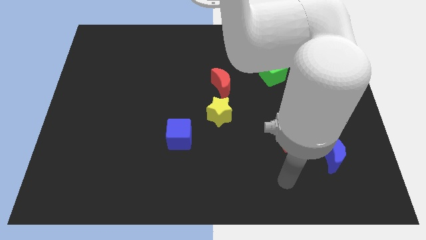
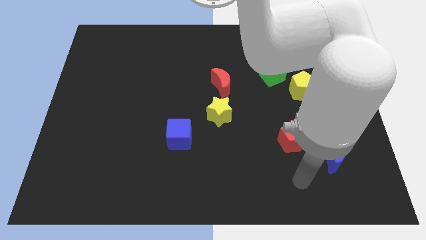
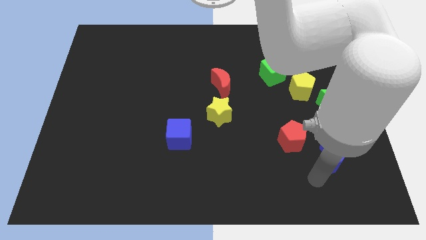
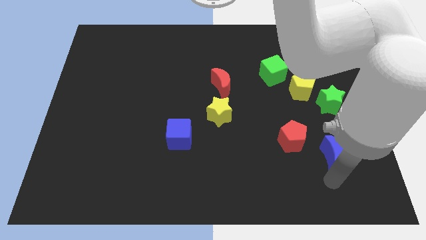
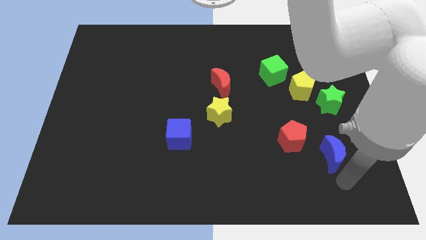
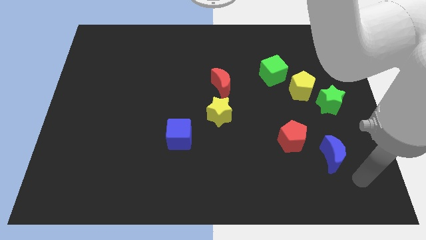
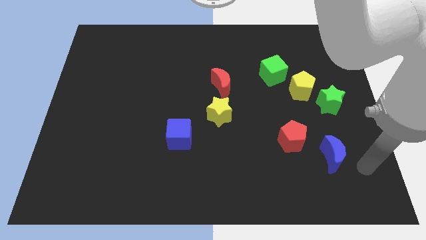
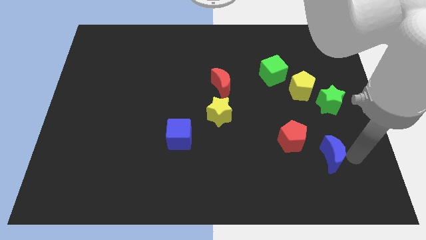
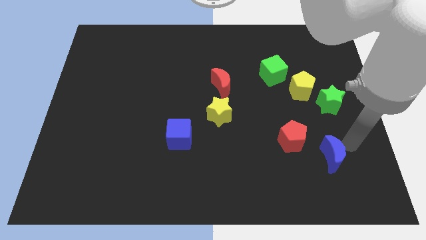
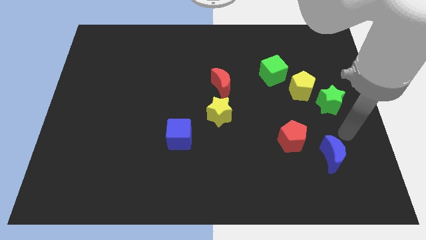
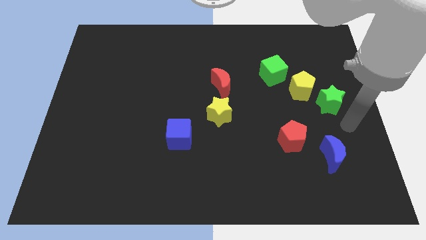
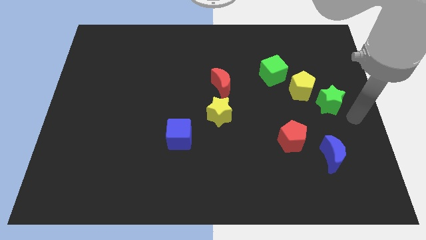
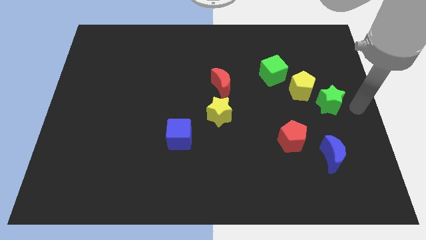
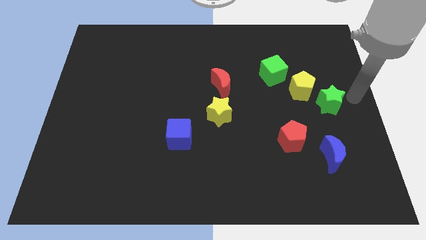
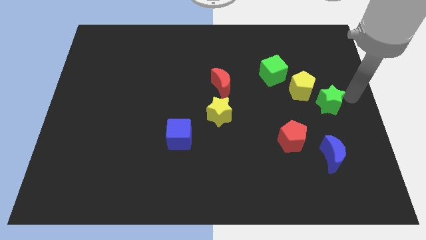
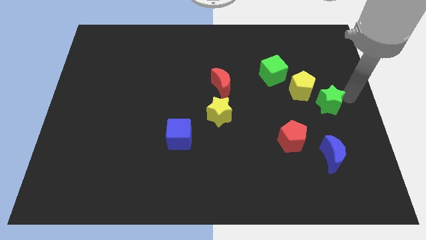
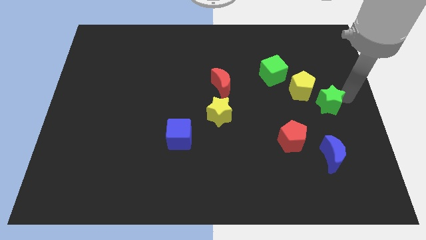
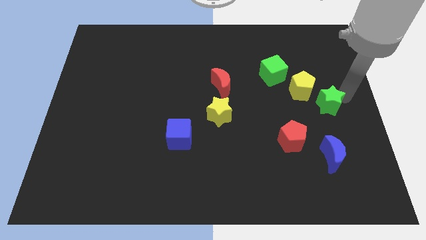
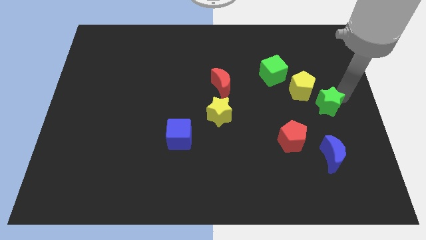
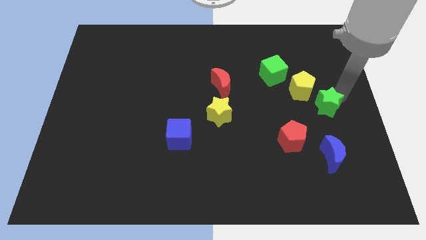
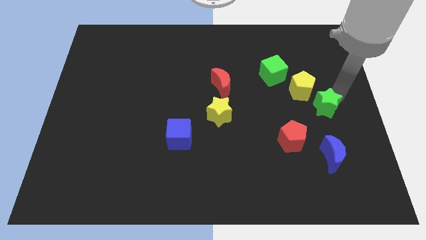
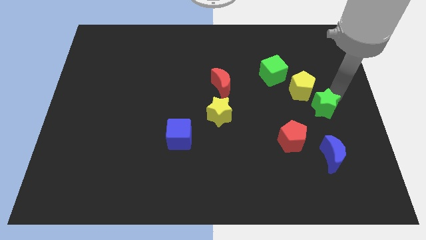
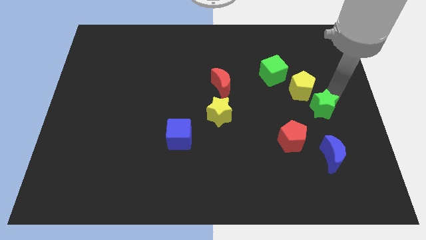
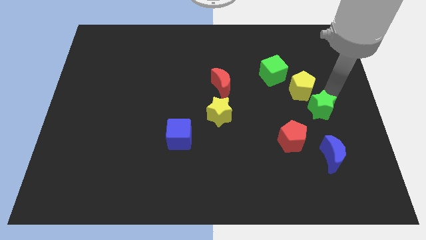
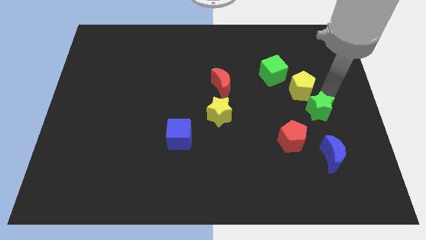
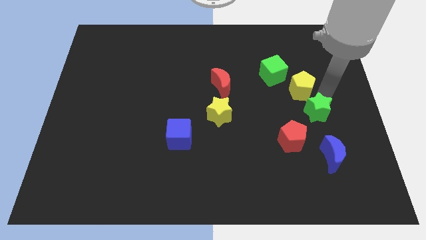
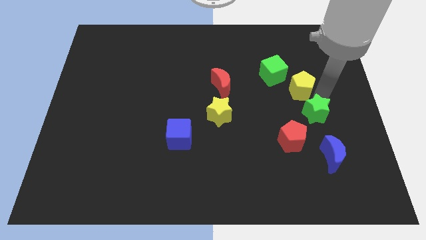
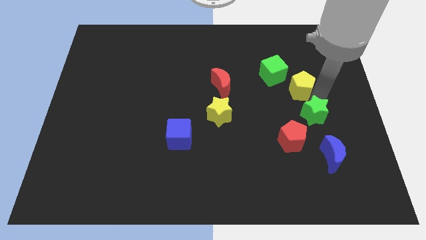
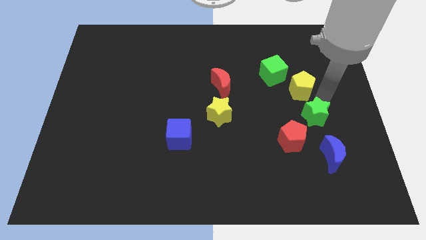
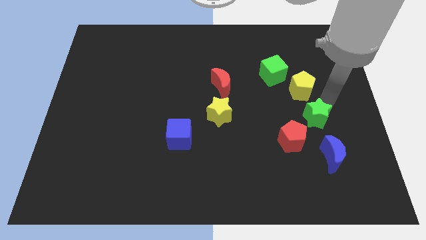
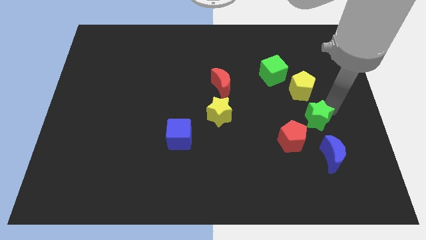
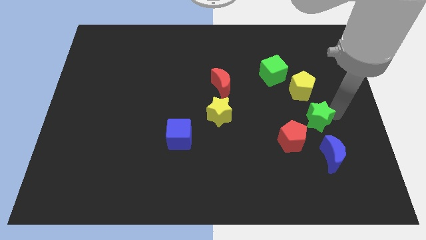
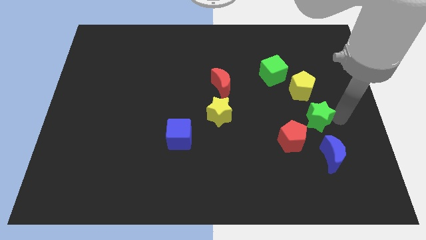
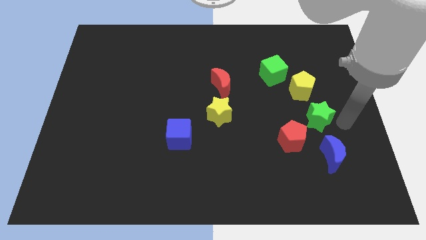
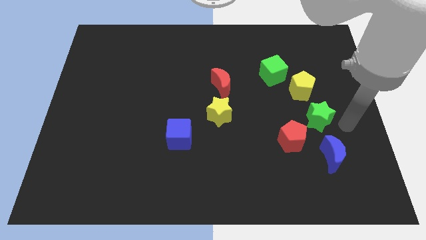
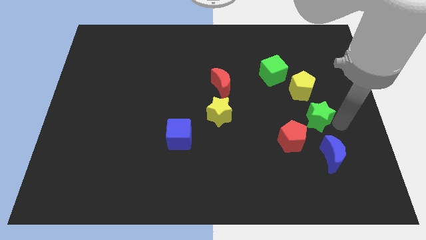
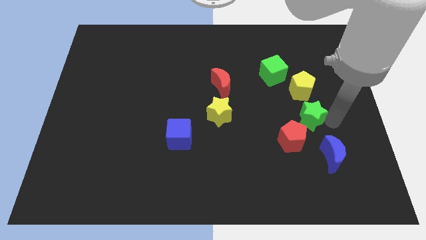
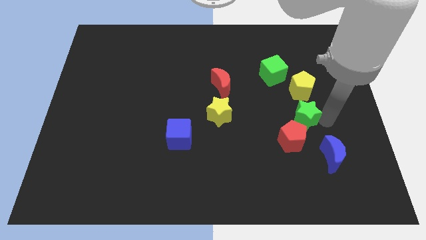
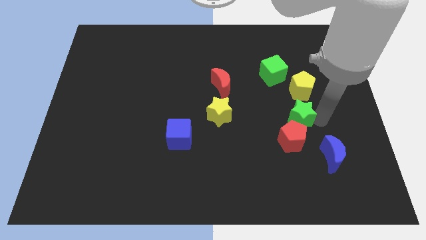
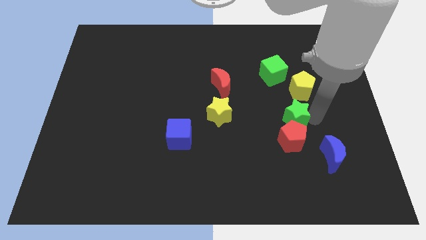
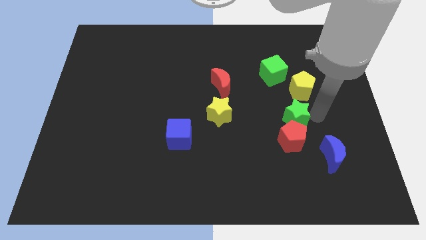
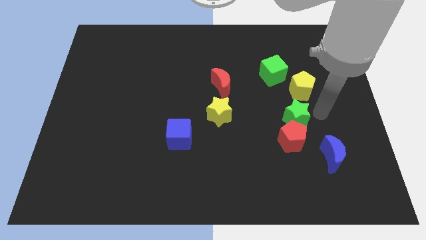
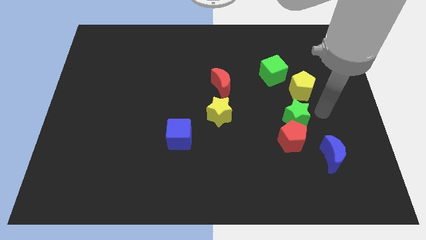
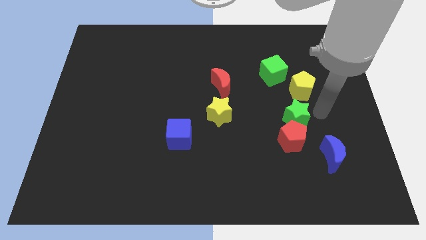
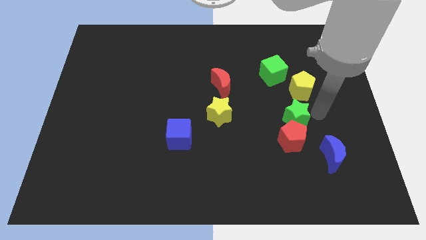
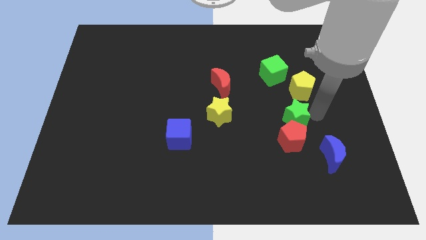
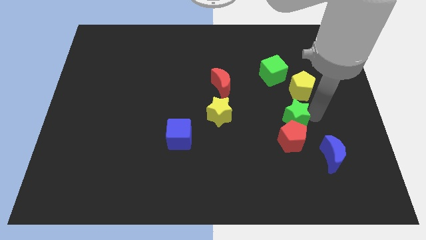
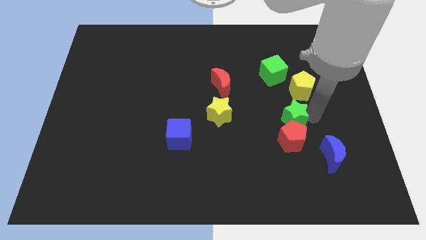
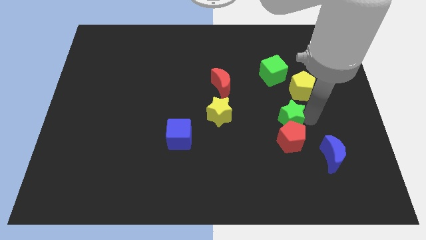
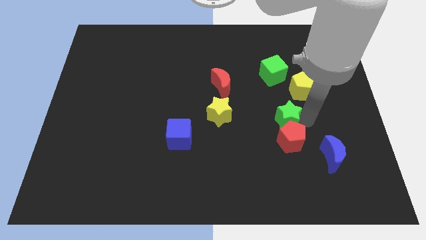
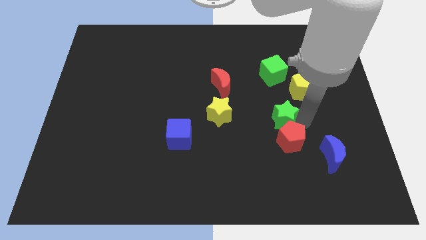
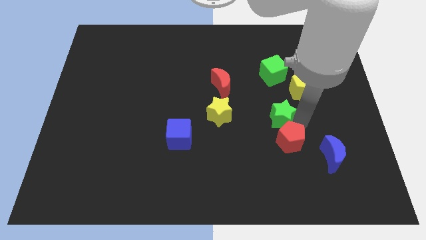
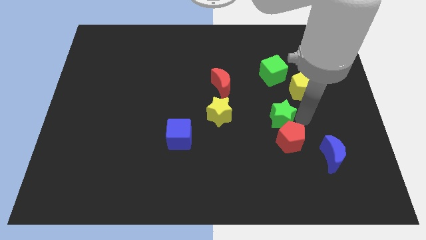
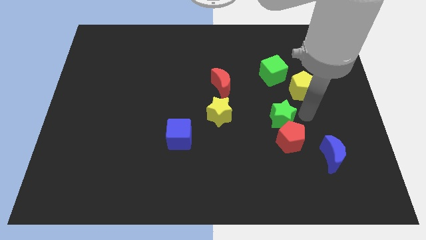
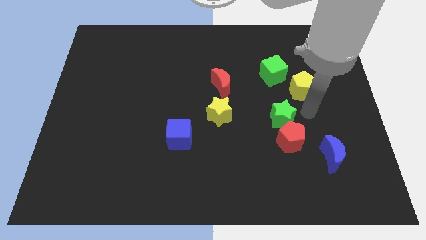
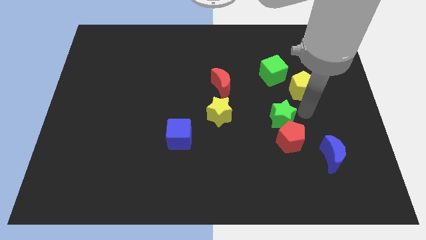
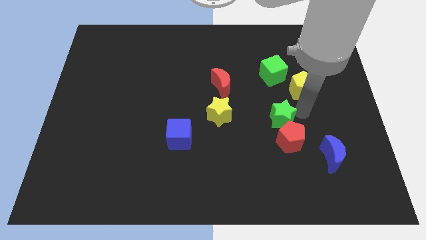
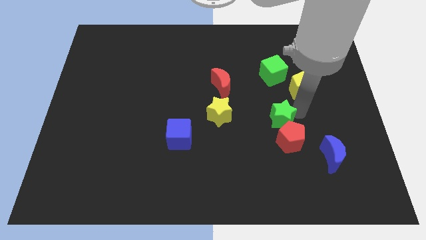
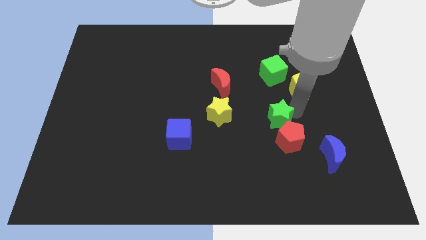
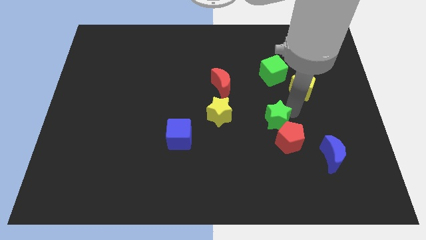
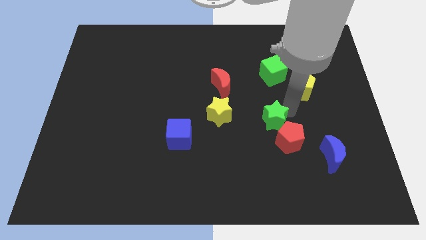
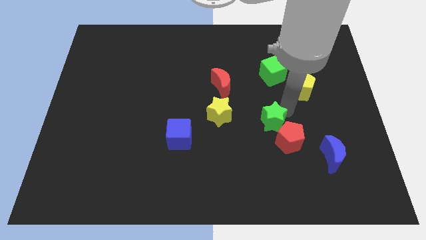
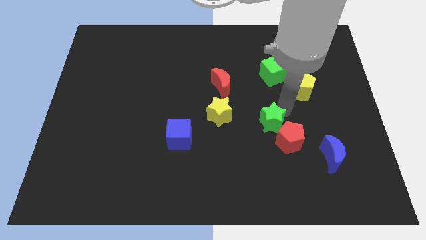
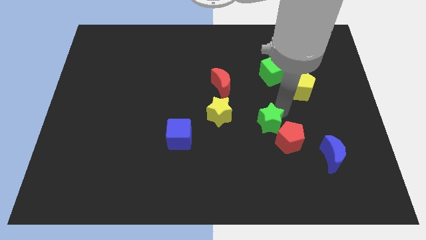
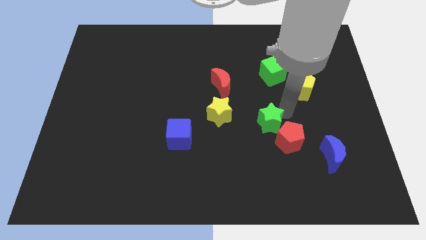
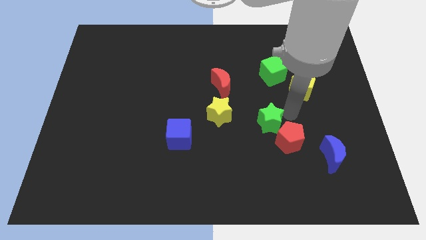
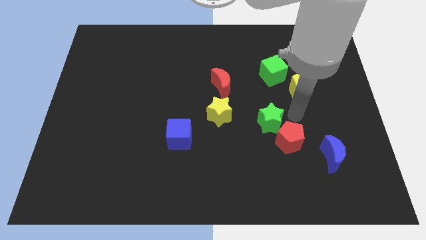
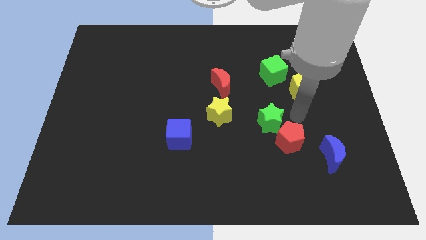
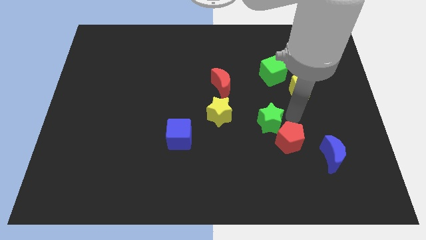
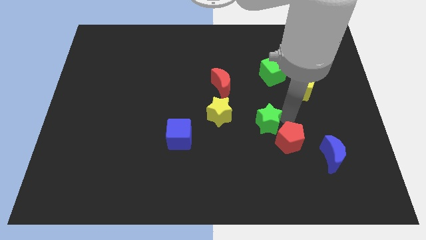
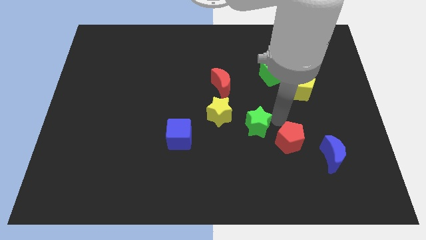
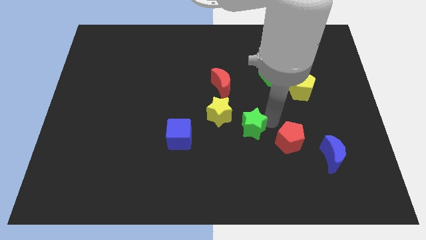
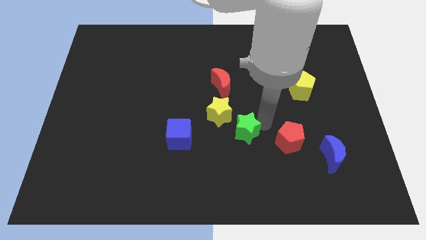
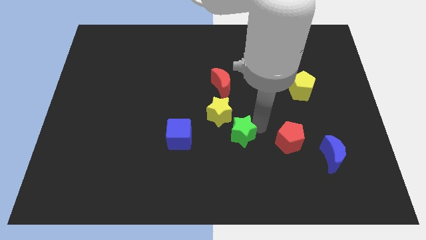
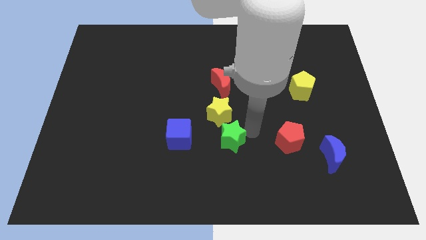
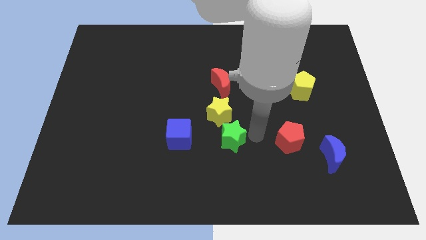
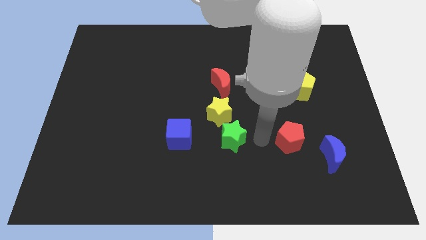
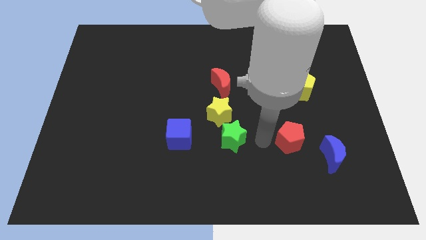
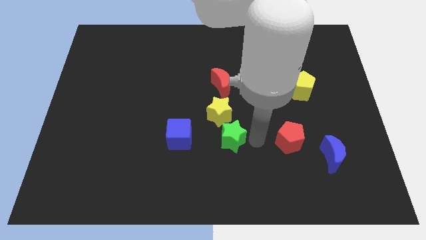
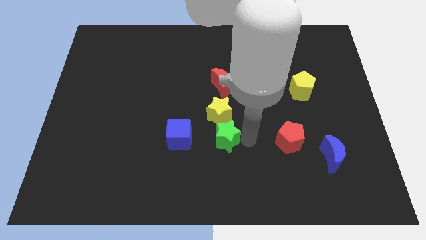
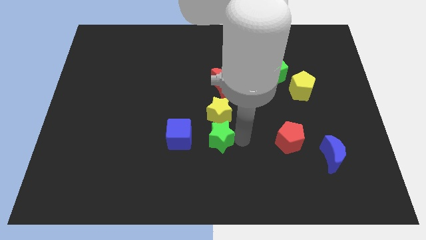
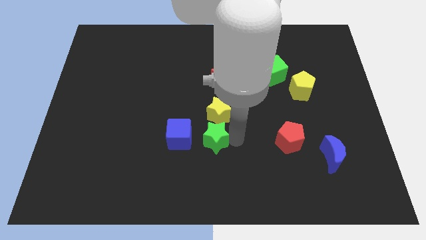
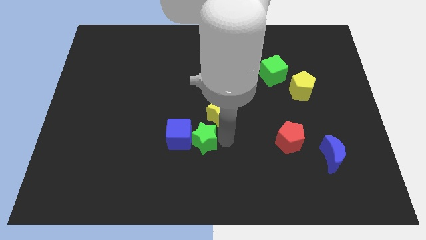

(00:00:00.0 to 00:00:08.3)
move the green star towards the blue cube
